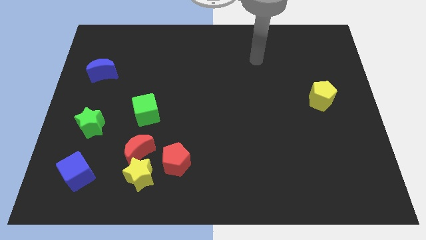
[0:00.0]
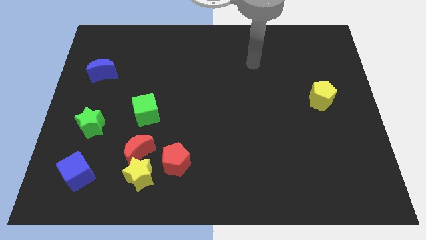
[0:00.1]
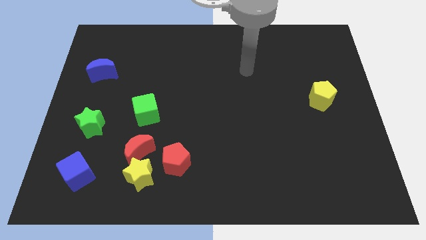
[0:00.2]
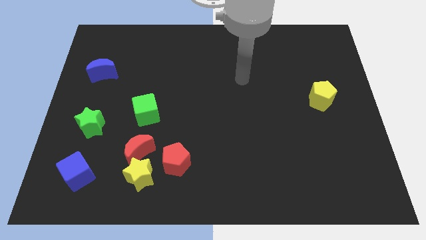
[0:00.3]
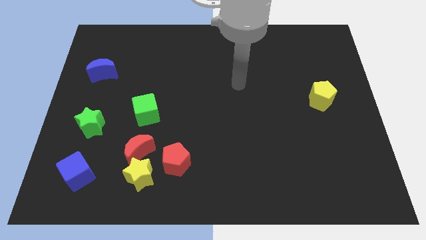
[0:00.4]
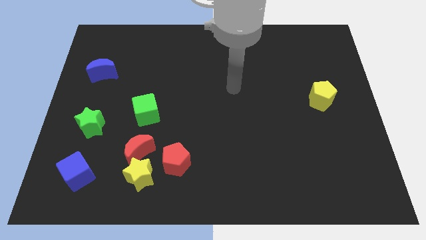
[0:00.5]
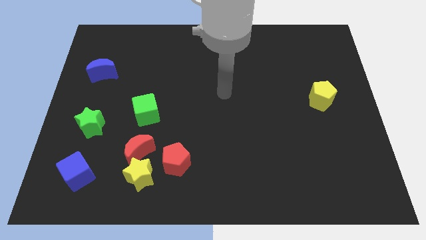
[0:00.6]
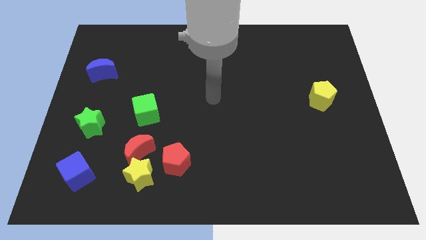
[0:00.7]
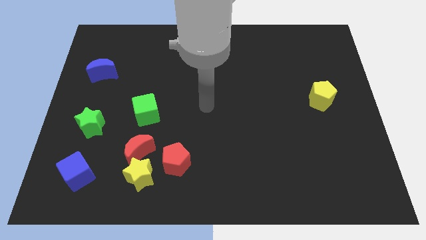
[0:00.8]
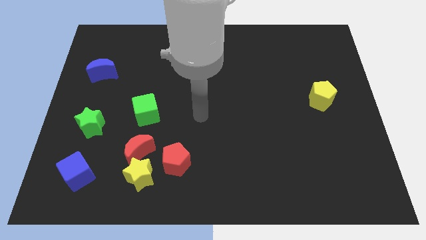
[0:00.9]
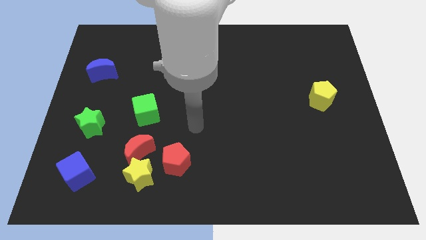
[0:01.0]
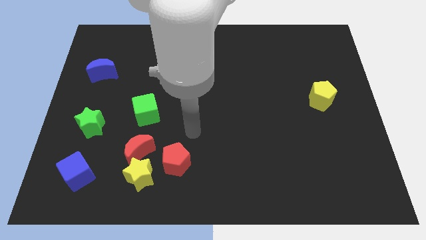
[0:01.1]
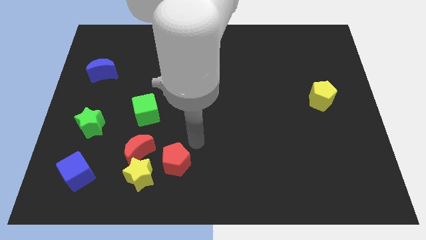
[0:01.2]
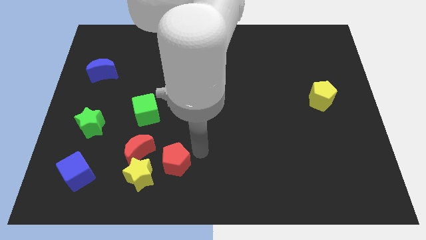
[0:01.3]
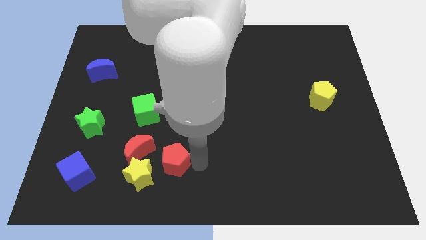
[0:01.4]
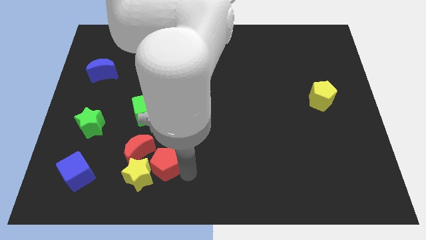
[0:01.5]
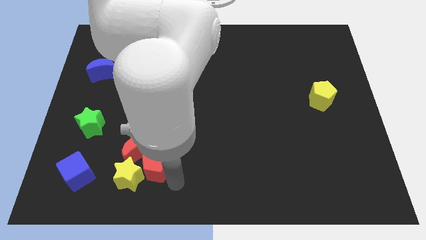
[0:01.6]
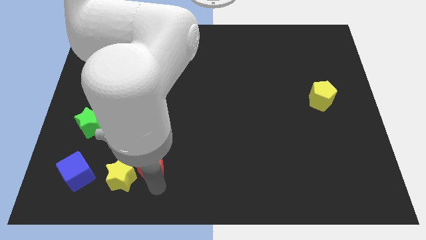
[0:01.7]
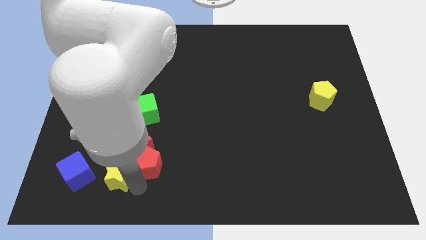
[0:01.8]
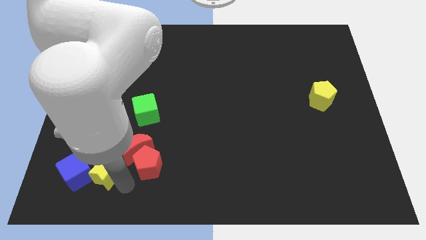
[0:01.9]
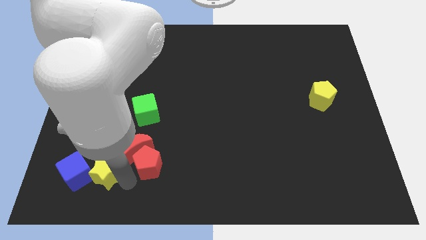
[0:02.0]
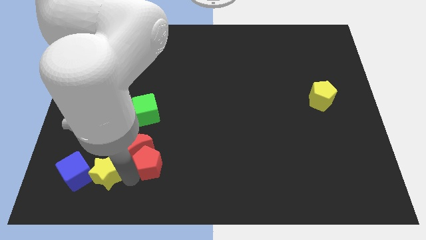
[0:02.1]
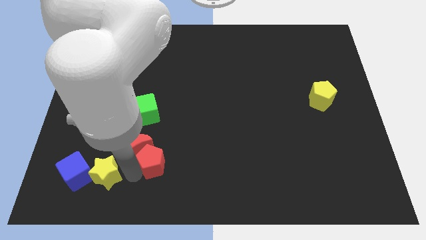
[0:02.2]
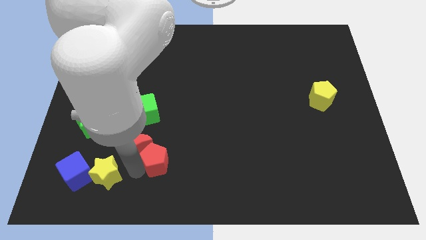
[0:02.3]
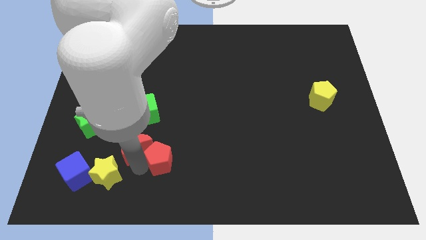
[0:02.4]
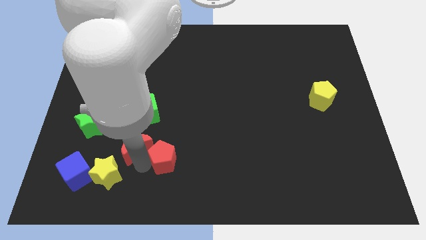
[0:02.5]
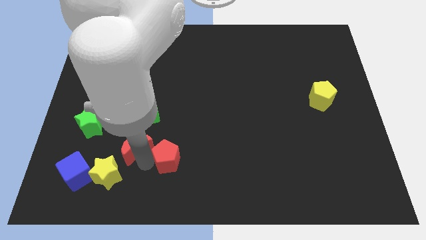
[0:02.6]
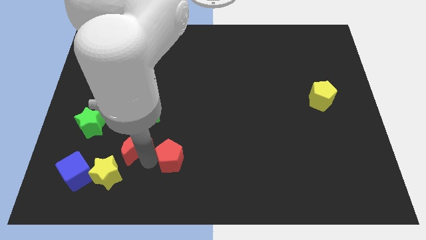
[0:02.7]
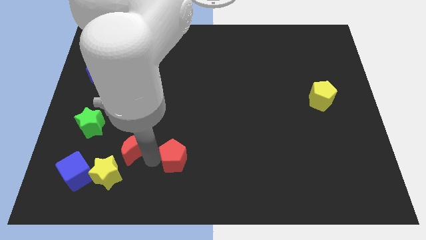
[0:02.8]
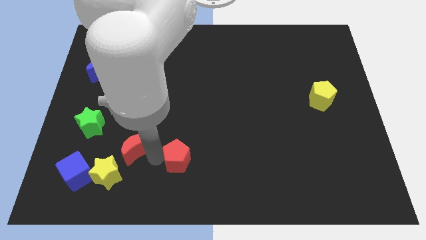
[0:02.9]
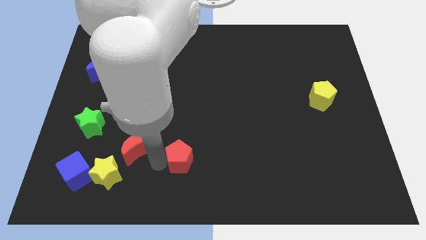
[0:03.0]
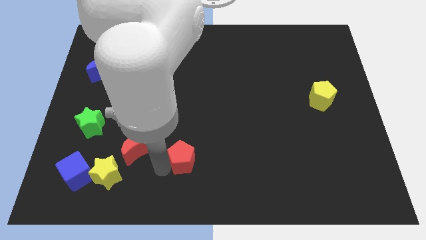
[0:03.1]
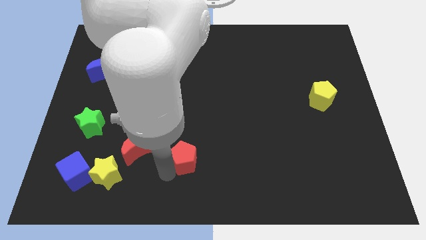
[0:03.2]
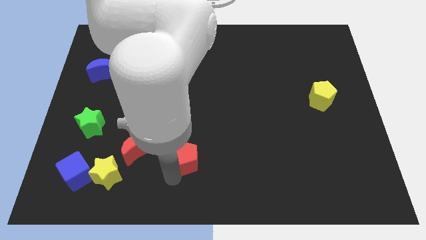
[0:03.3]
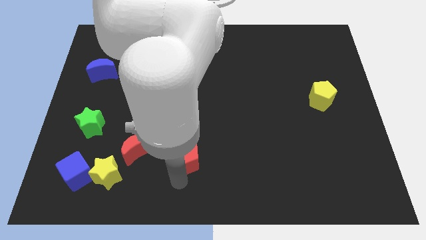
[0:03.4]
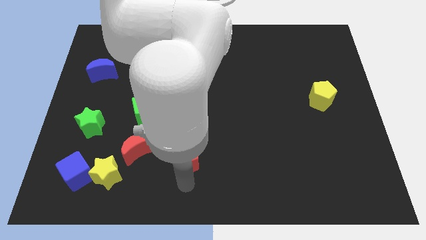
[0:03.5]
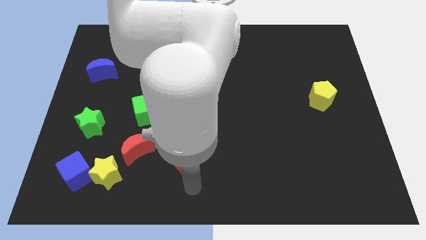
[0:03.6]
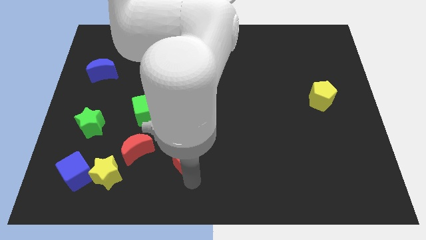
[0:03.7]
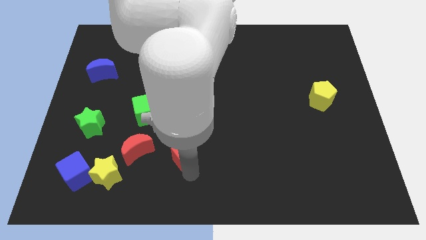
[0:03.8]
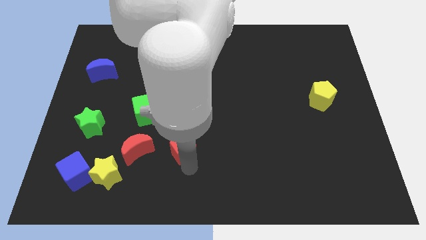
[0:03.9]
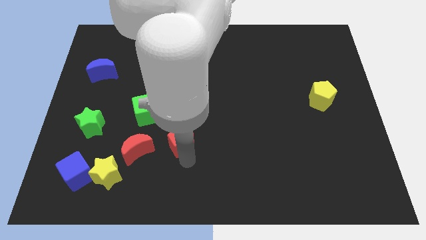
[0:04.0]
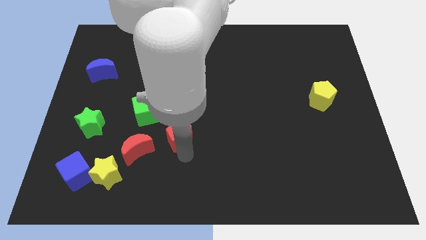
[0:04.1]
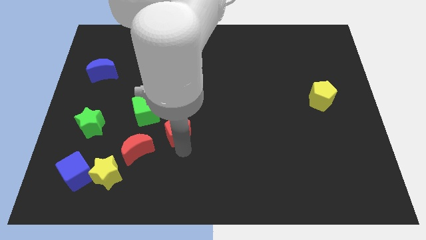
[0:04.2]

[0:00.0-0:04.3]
slide the red pentagon slightly upwards

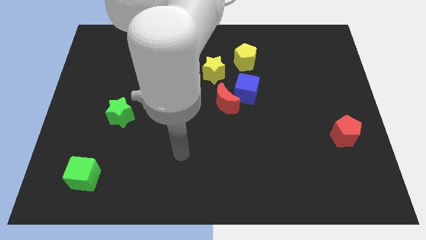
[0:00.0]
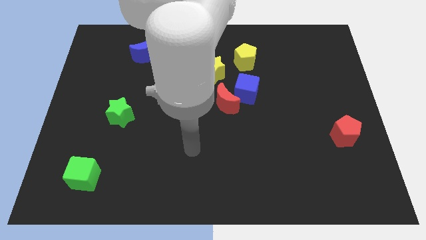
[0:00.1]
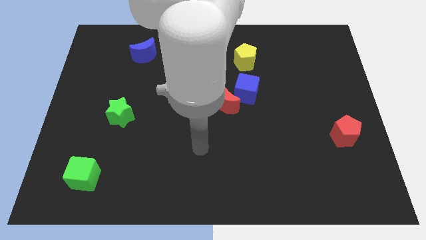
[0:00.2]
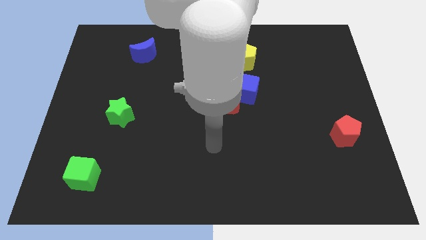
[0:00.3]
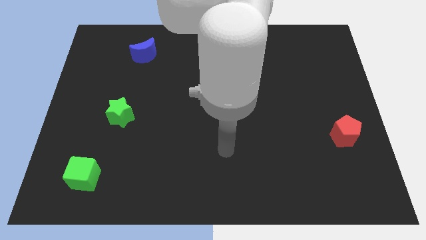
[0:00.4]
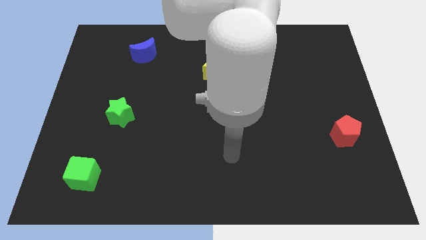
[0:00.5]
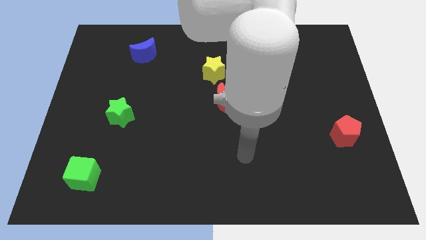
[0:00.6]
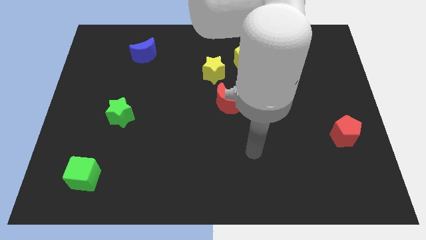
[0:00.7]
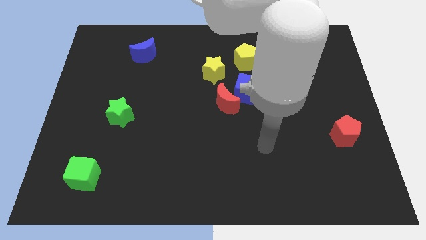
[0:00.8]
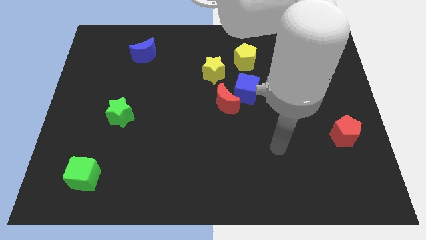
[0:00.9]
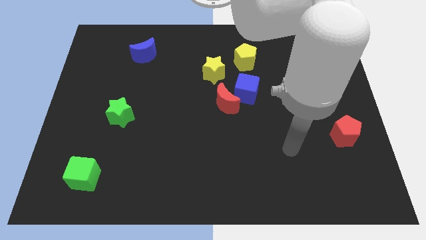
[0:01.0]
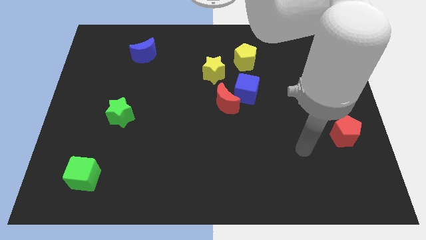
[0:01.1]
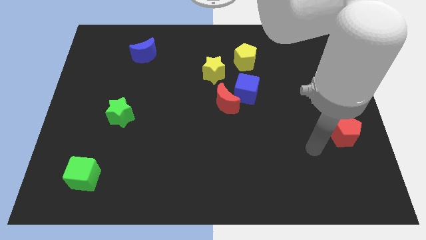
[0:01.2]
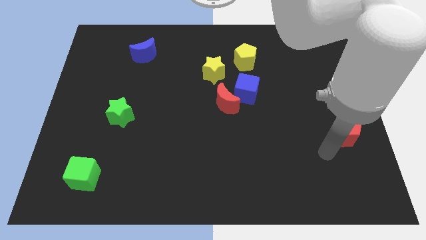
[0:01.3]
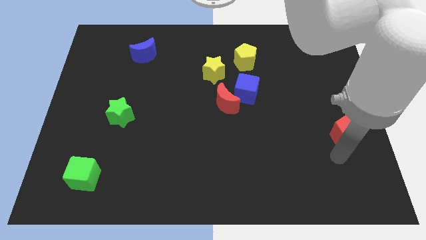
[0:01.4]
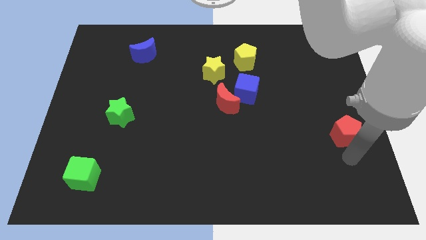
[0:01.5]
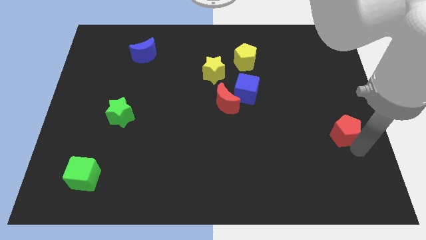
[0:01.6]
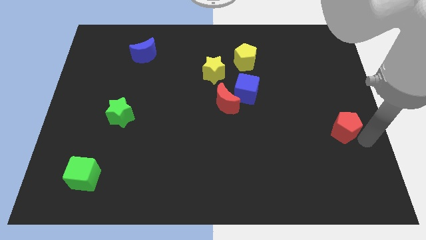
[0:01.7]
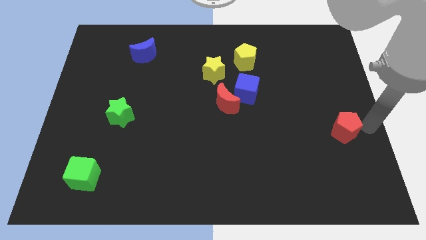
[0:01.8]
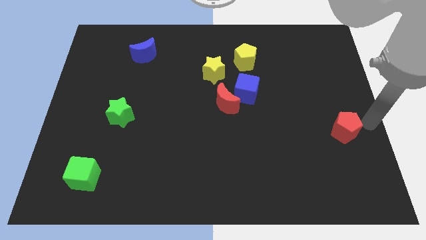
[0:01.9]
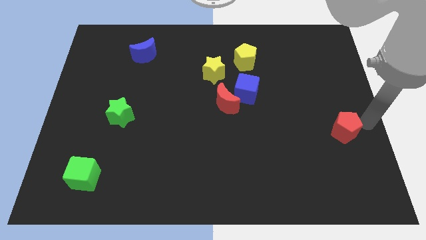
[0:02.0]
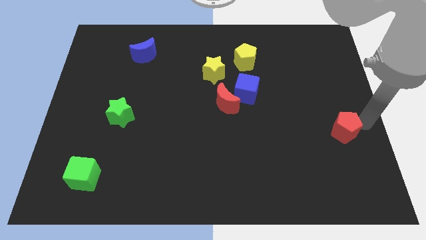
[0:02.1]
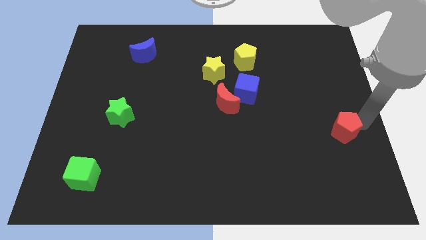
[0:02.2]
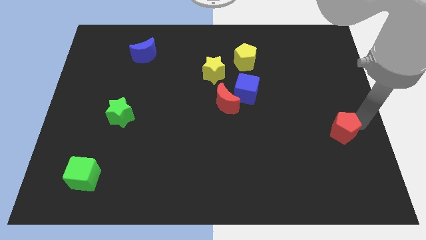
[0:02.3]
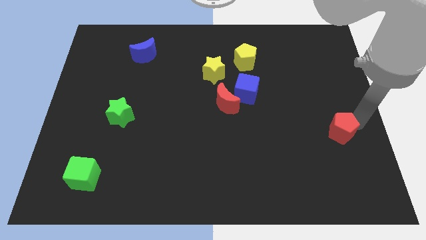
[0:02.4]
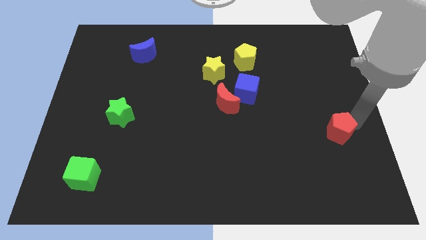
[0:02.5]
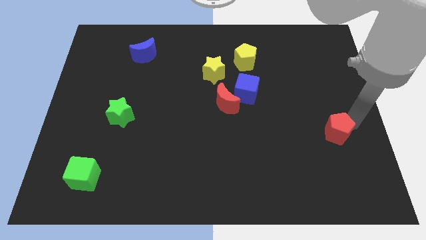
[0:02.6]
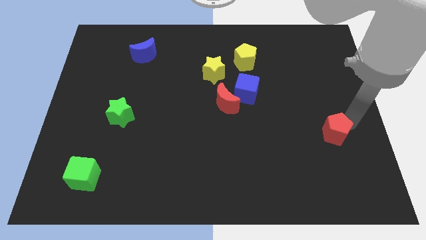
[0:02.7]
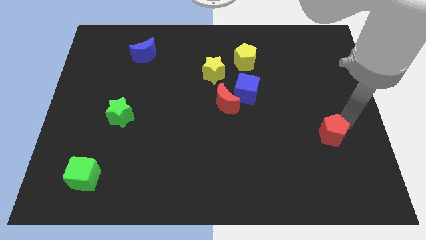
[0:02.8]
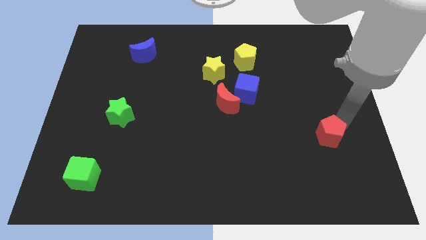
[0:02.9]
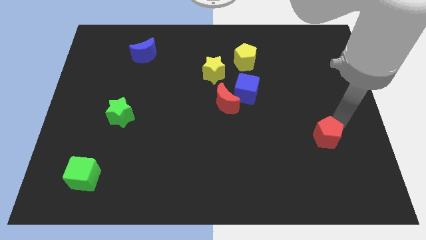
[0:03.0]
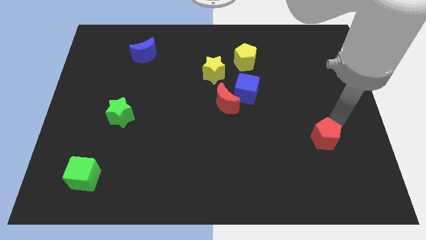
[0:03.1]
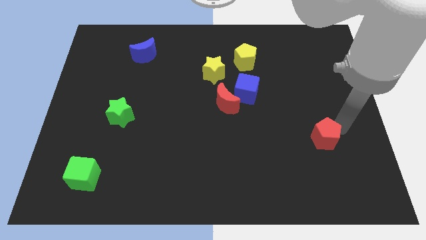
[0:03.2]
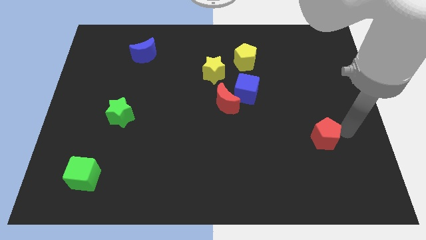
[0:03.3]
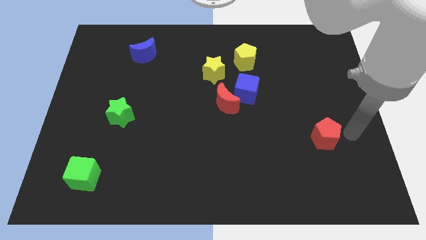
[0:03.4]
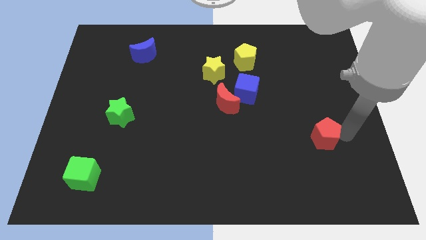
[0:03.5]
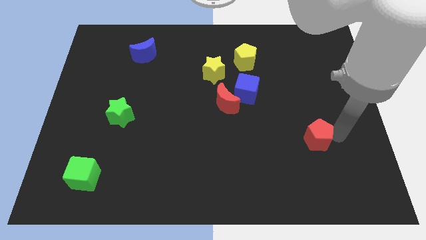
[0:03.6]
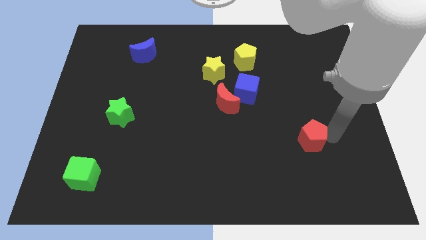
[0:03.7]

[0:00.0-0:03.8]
slightly move the red pentagon left

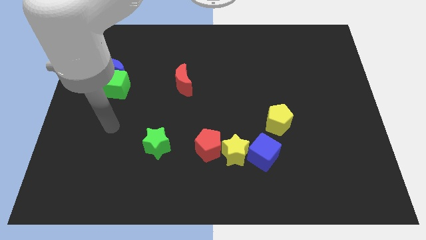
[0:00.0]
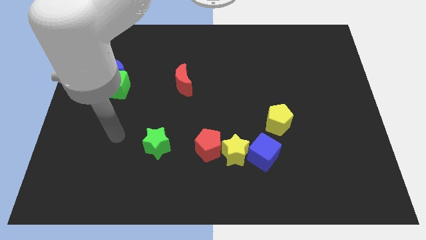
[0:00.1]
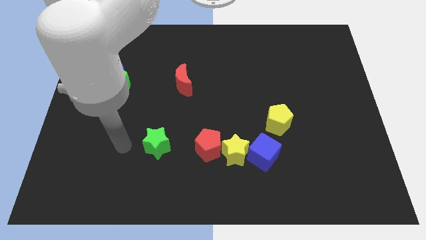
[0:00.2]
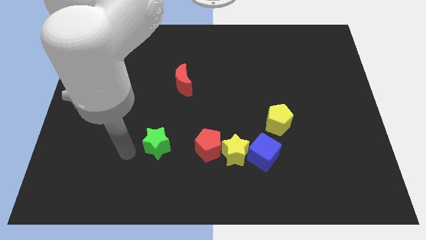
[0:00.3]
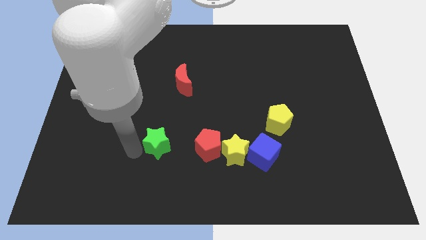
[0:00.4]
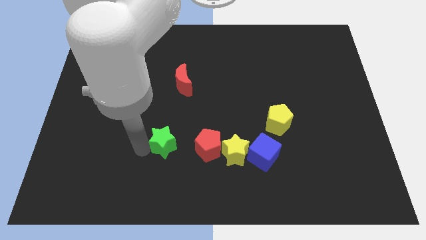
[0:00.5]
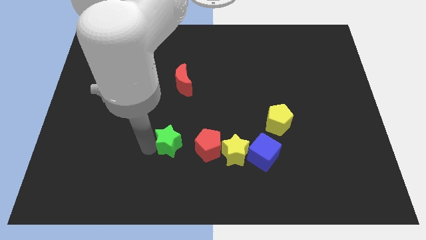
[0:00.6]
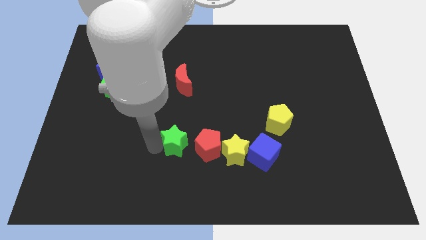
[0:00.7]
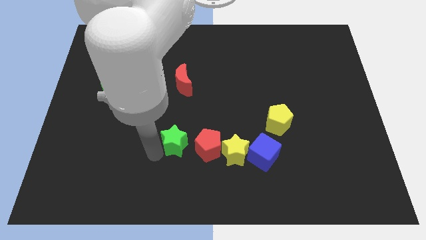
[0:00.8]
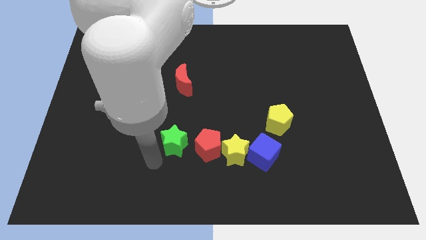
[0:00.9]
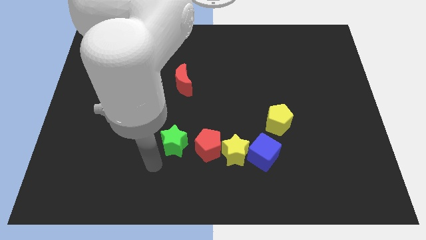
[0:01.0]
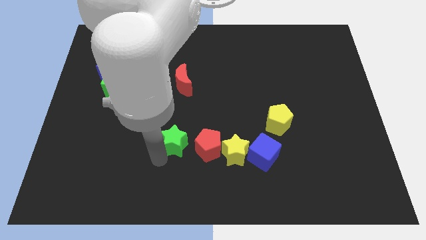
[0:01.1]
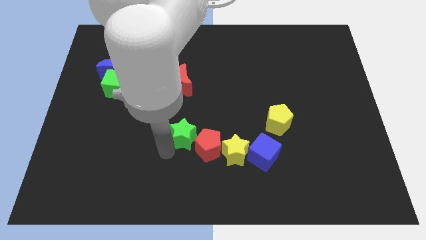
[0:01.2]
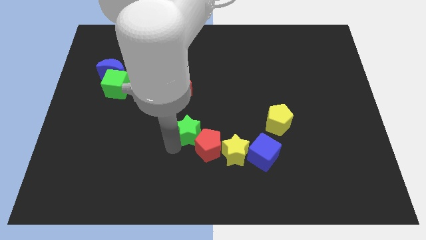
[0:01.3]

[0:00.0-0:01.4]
slide the green star upwards and right diagonally a bit
